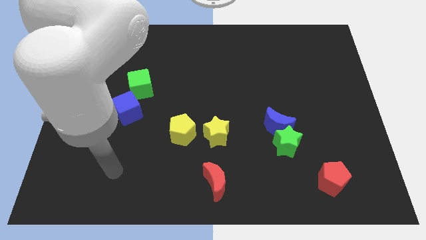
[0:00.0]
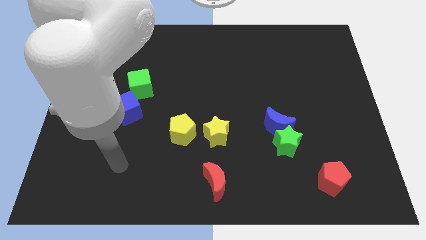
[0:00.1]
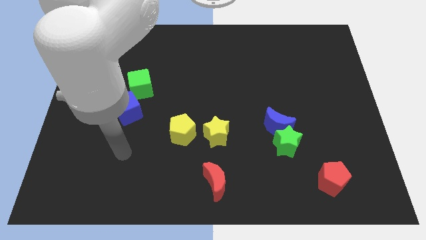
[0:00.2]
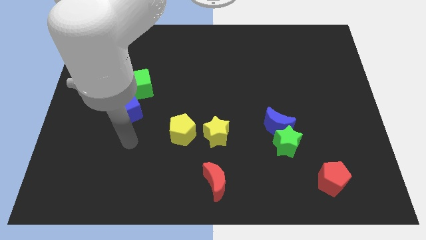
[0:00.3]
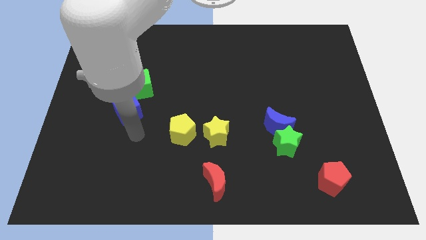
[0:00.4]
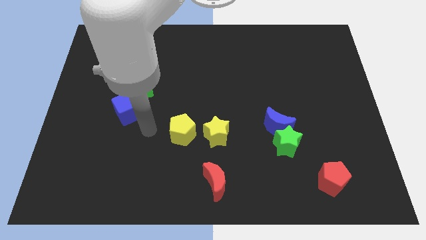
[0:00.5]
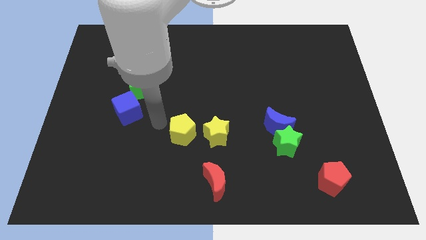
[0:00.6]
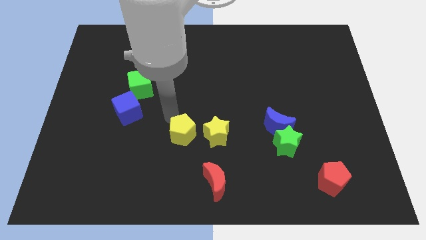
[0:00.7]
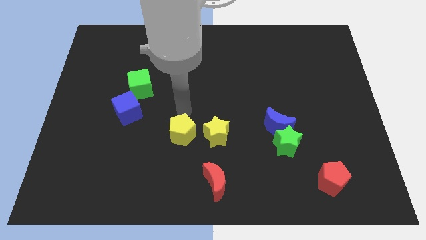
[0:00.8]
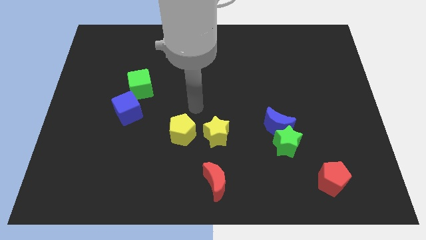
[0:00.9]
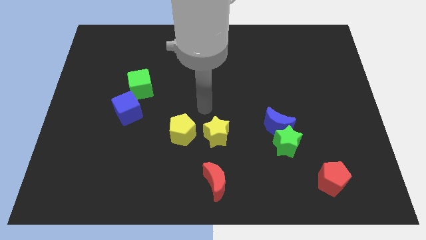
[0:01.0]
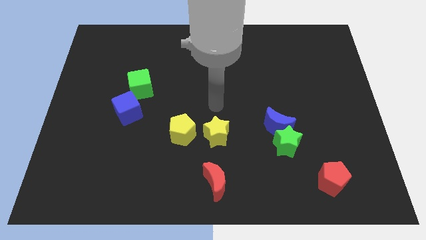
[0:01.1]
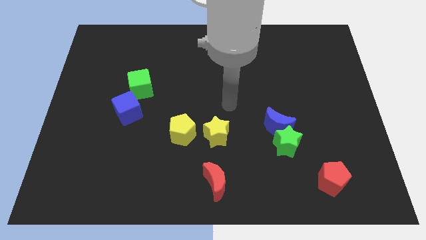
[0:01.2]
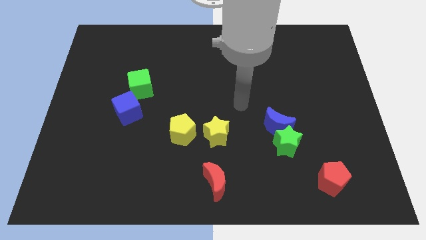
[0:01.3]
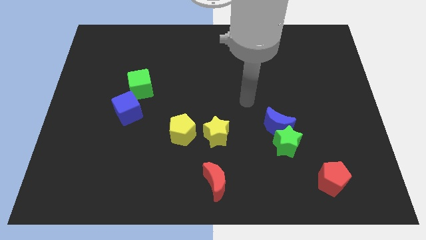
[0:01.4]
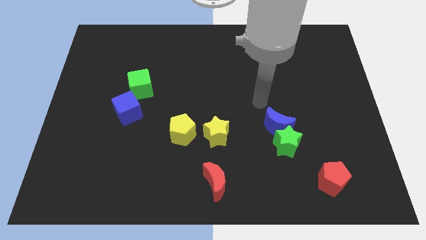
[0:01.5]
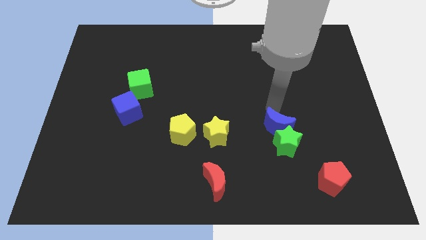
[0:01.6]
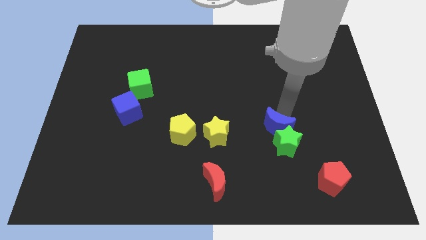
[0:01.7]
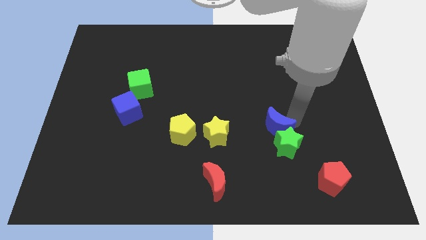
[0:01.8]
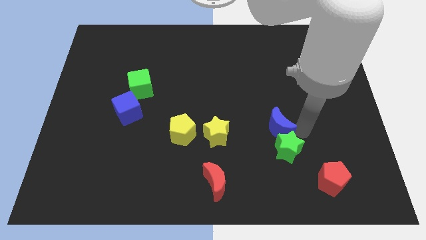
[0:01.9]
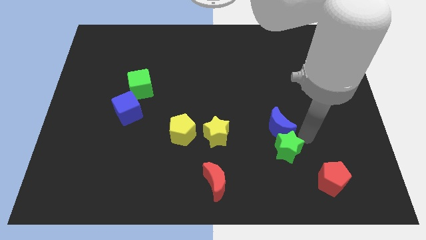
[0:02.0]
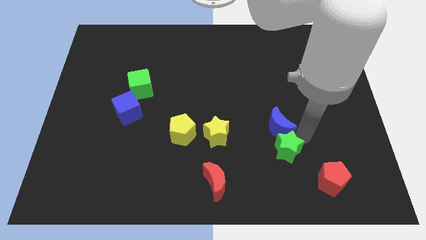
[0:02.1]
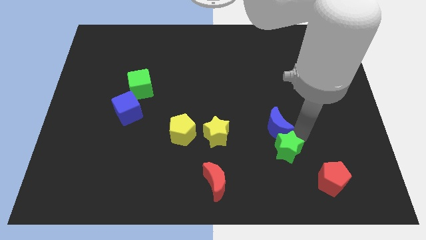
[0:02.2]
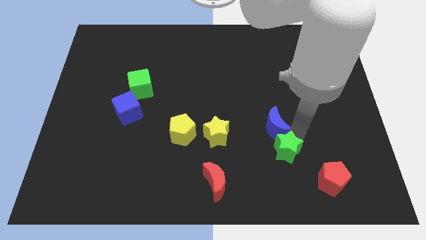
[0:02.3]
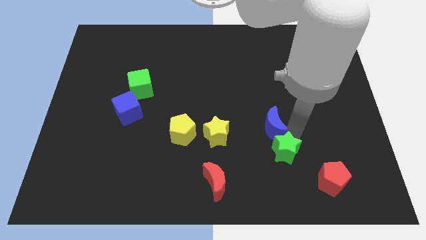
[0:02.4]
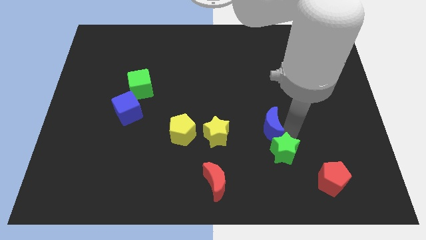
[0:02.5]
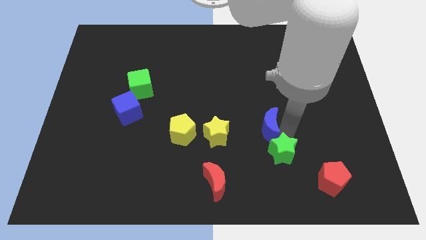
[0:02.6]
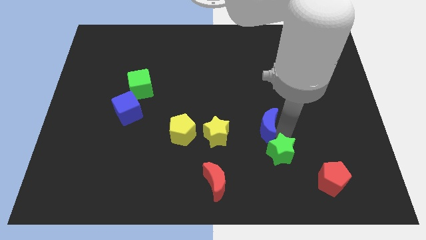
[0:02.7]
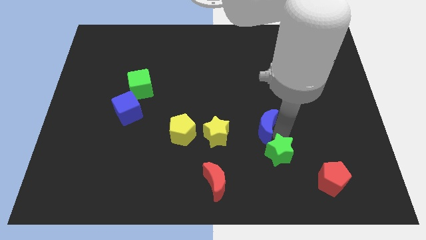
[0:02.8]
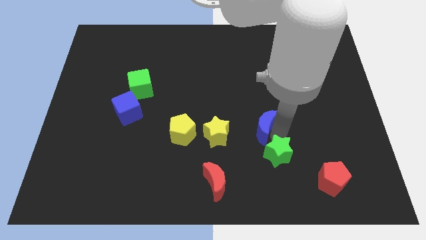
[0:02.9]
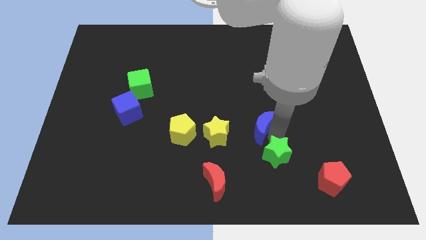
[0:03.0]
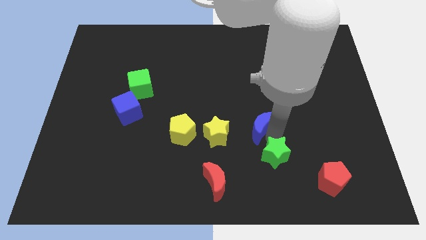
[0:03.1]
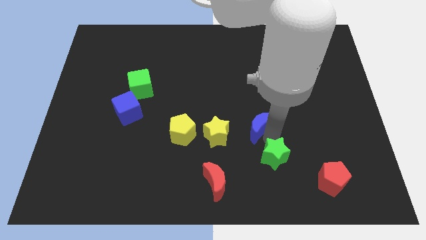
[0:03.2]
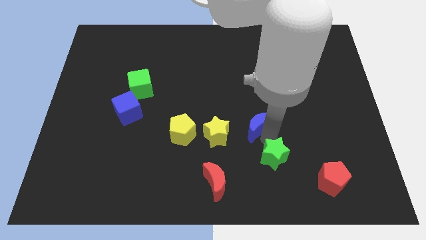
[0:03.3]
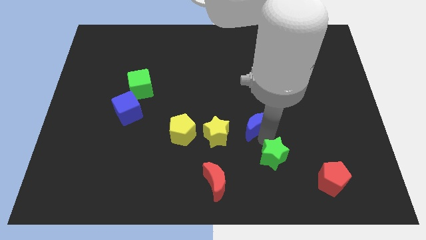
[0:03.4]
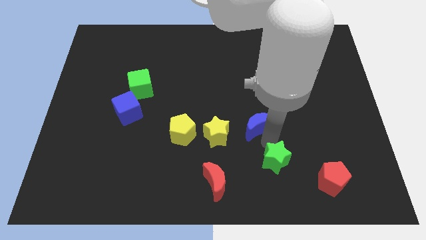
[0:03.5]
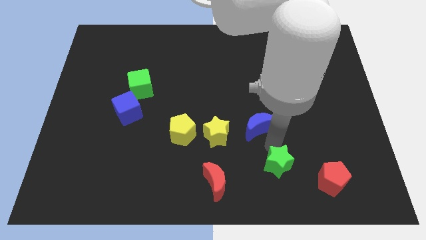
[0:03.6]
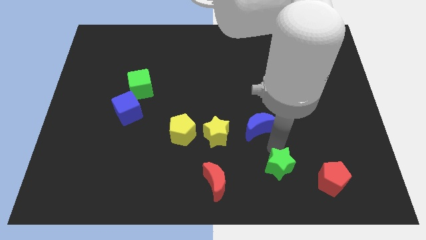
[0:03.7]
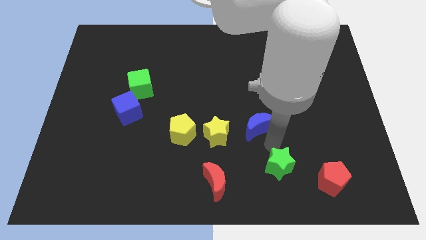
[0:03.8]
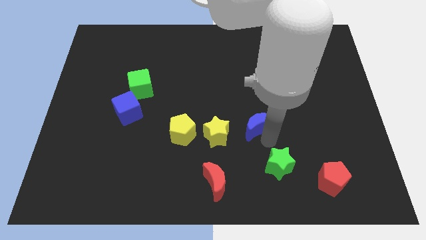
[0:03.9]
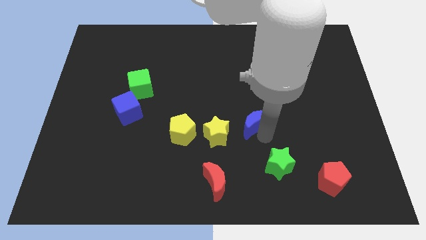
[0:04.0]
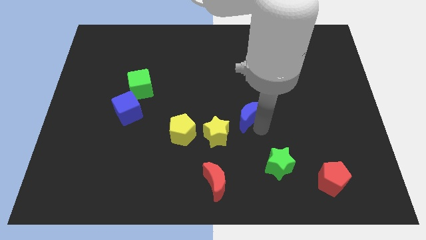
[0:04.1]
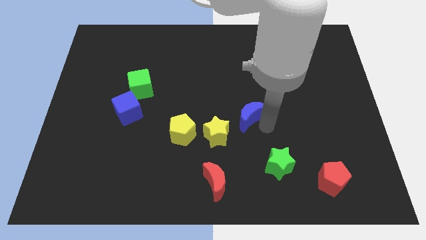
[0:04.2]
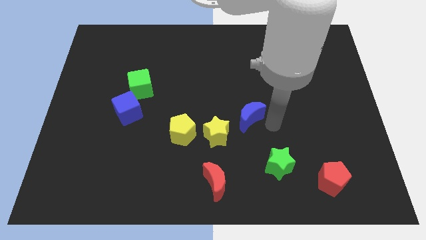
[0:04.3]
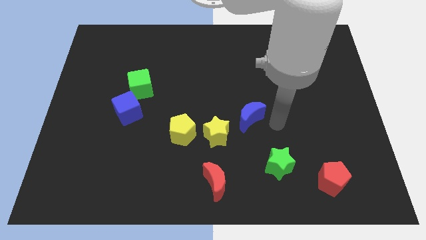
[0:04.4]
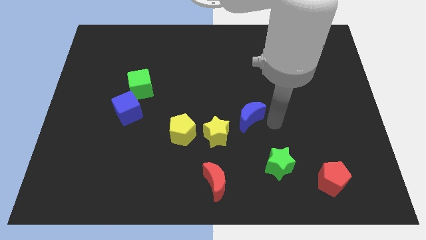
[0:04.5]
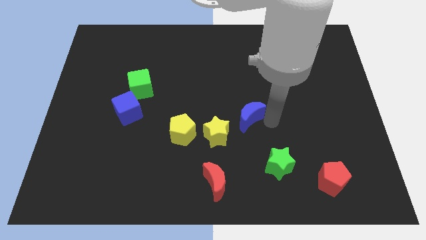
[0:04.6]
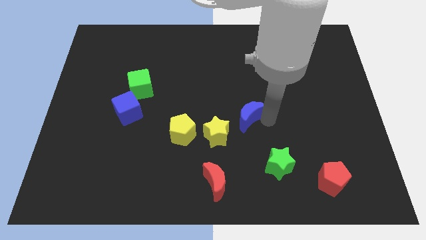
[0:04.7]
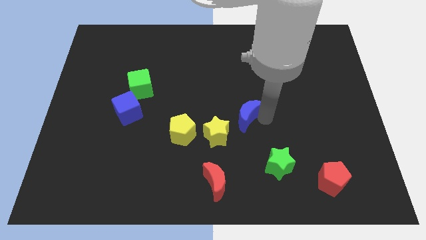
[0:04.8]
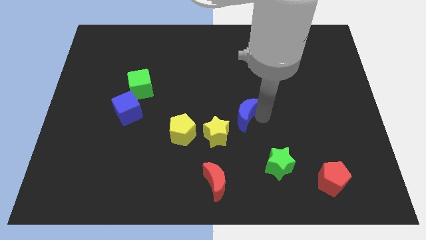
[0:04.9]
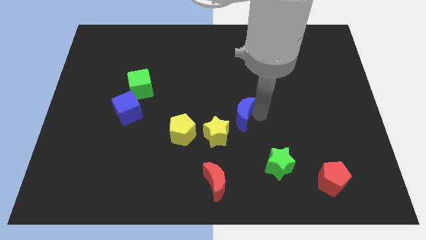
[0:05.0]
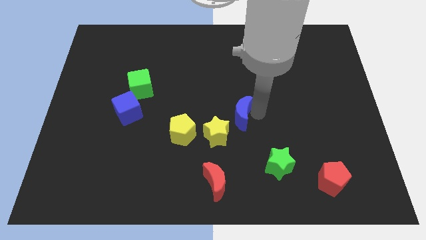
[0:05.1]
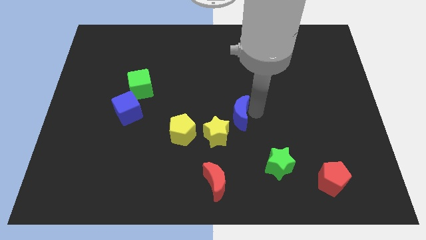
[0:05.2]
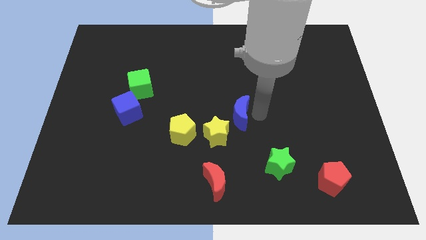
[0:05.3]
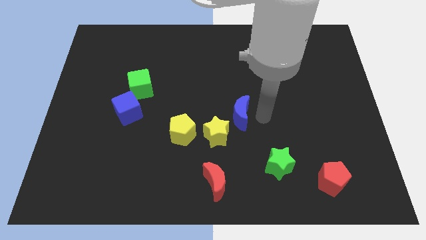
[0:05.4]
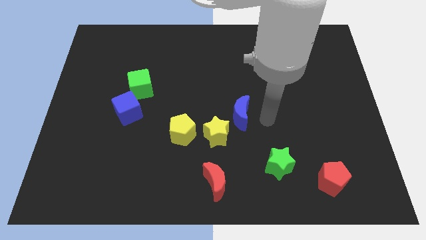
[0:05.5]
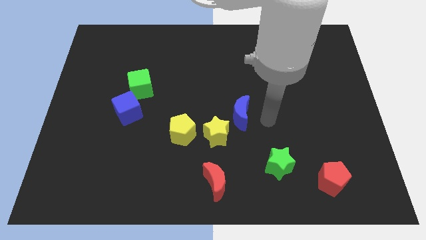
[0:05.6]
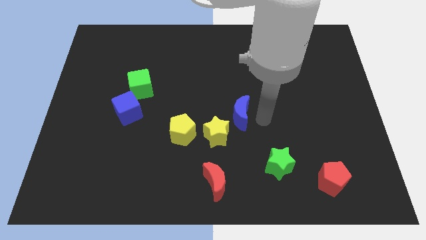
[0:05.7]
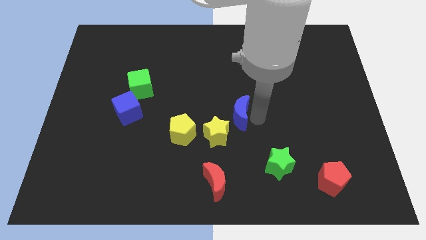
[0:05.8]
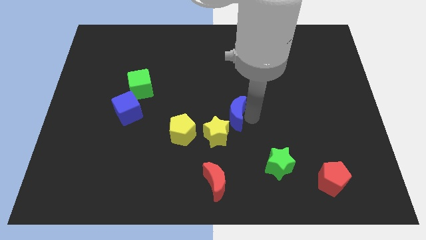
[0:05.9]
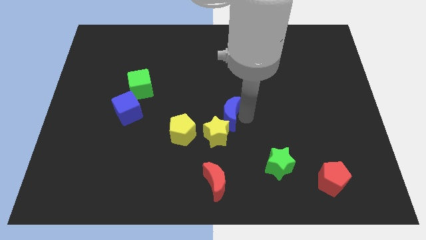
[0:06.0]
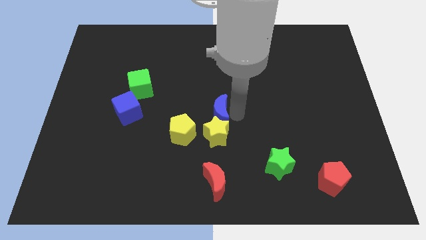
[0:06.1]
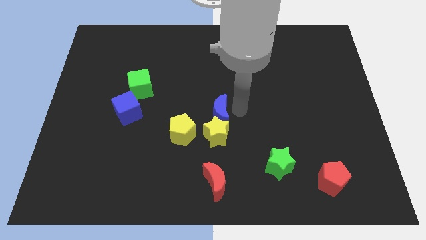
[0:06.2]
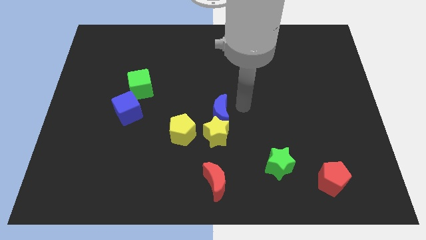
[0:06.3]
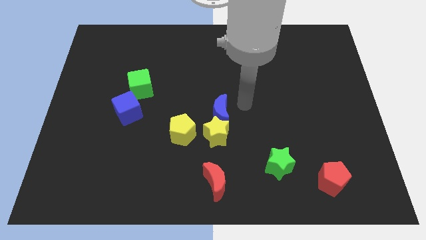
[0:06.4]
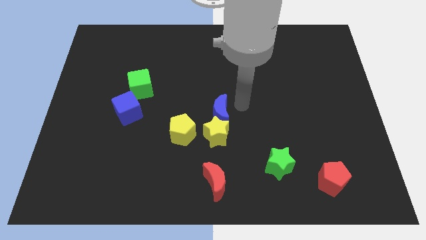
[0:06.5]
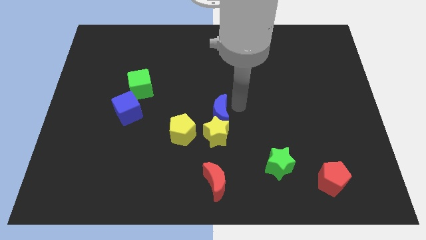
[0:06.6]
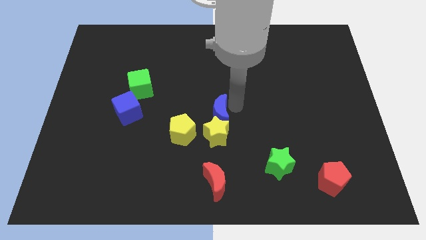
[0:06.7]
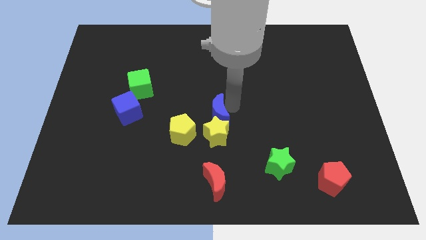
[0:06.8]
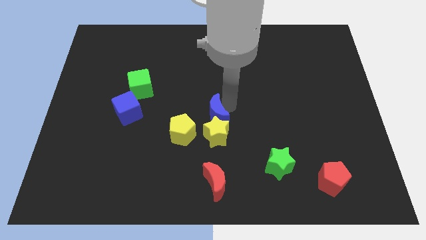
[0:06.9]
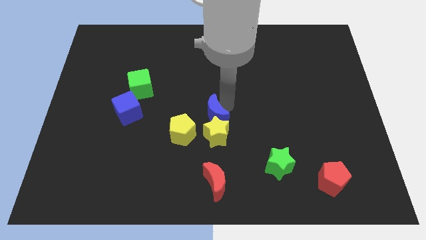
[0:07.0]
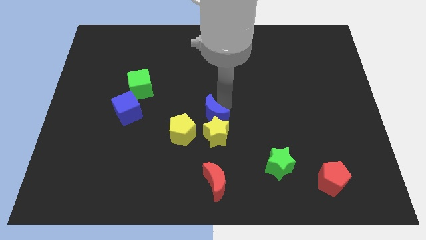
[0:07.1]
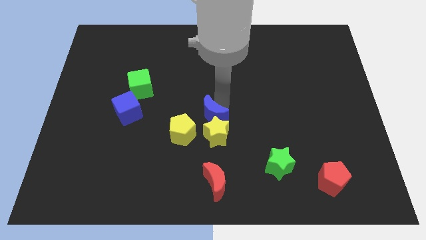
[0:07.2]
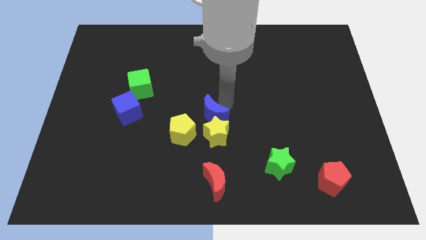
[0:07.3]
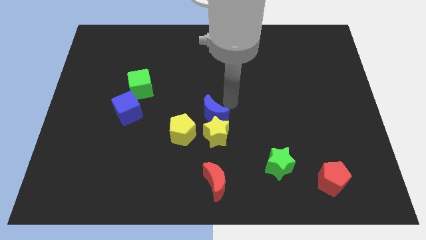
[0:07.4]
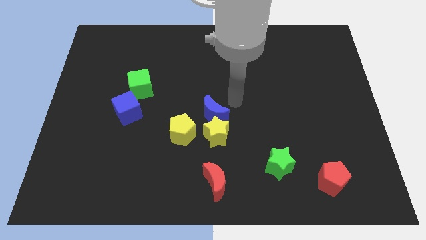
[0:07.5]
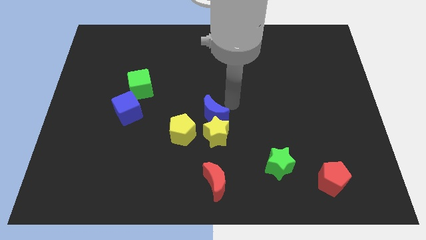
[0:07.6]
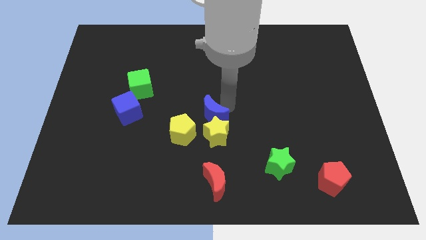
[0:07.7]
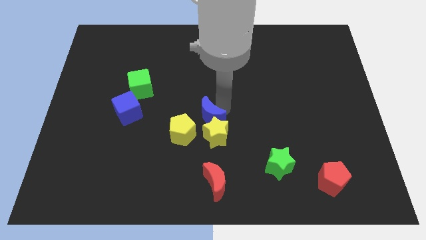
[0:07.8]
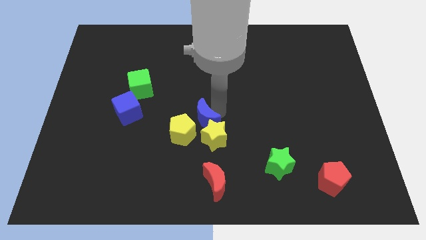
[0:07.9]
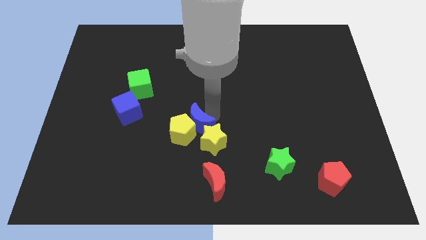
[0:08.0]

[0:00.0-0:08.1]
slide the blue moon next to the yellow pentagon
